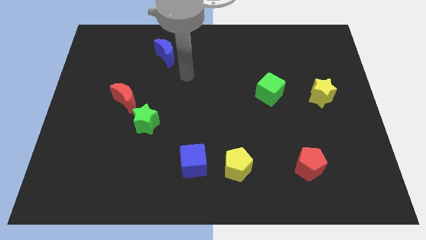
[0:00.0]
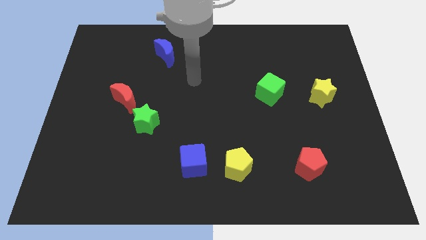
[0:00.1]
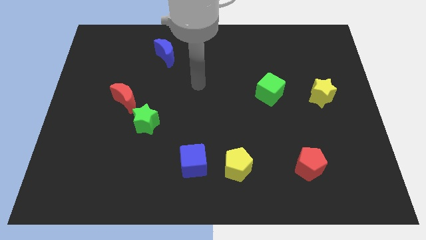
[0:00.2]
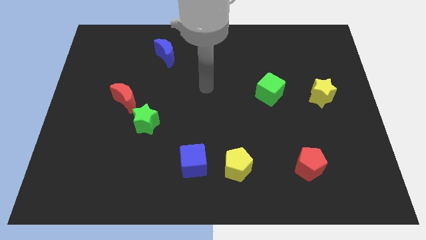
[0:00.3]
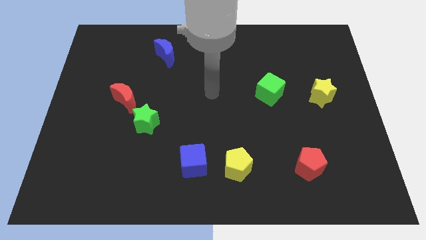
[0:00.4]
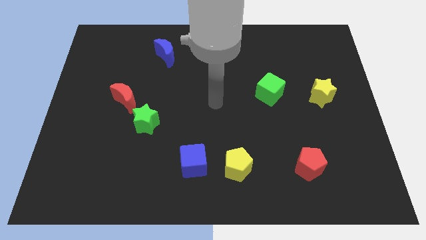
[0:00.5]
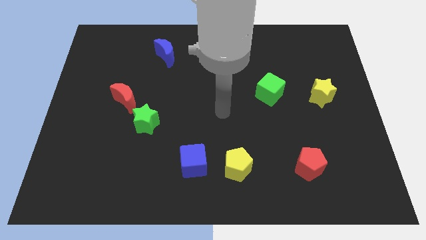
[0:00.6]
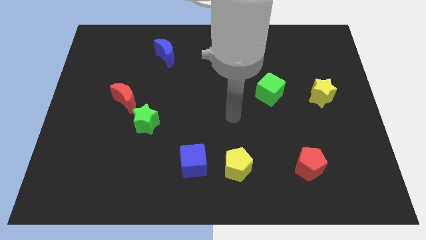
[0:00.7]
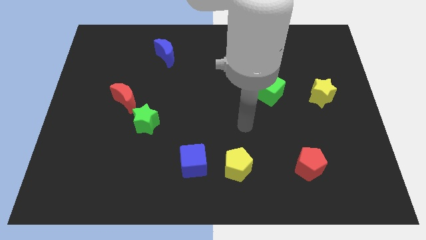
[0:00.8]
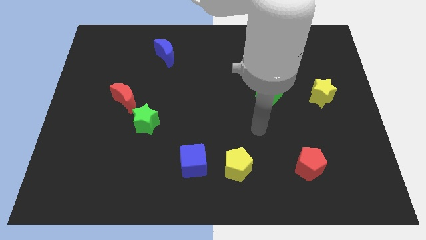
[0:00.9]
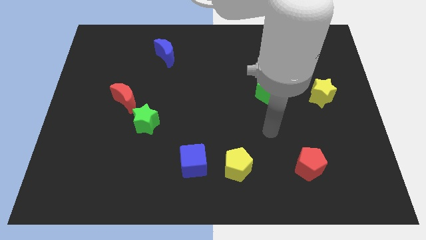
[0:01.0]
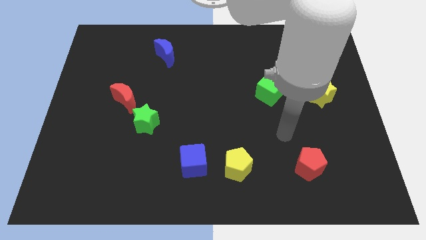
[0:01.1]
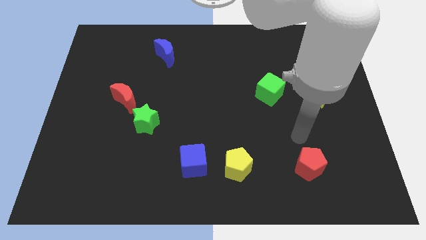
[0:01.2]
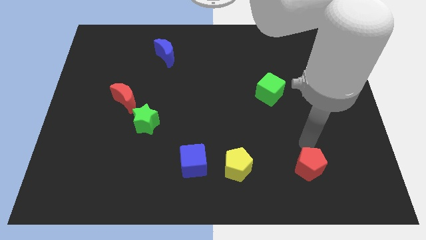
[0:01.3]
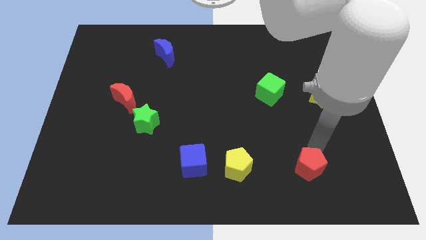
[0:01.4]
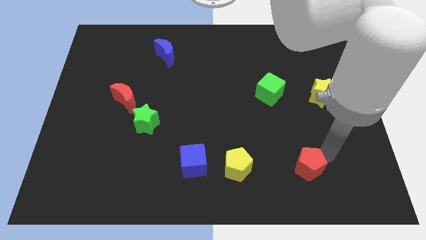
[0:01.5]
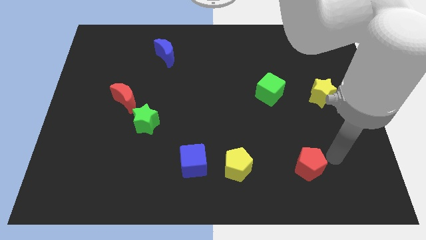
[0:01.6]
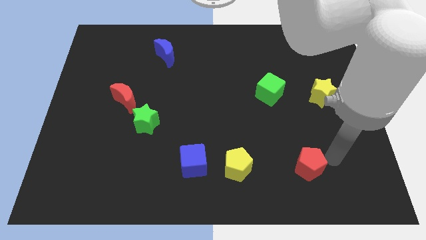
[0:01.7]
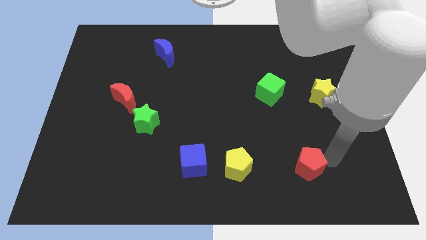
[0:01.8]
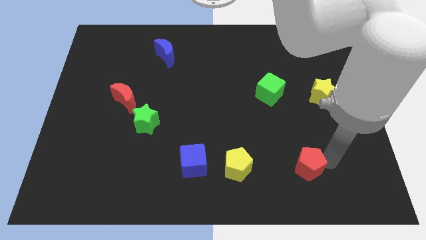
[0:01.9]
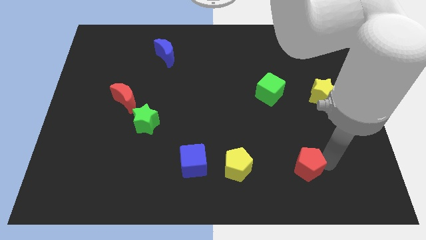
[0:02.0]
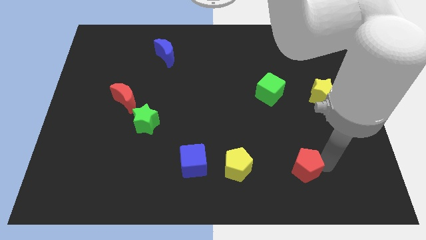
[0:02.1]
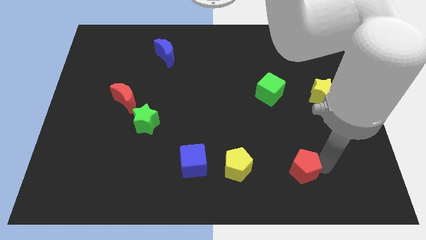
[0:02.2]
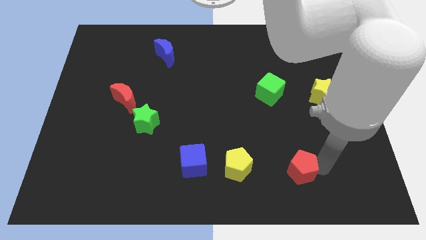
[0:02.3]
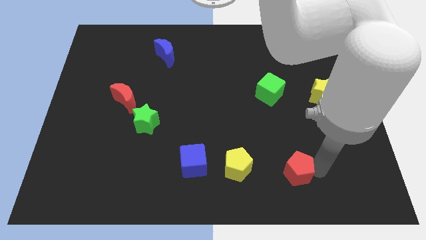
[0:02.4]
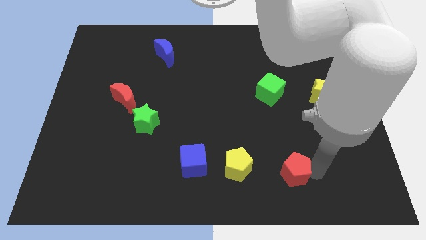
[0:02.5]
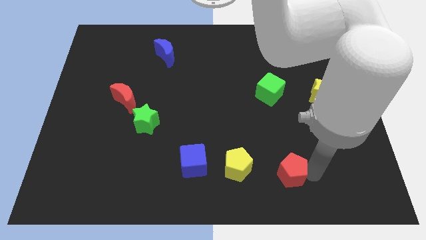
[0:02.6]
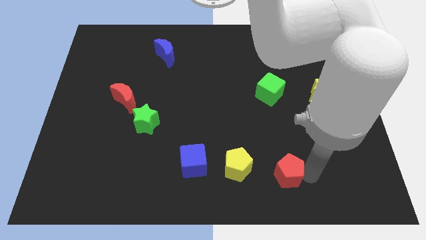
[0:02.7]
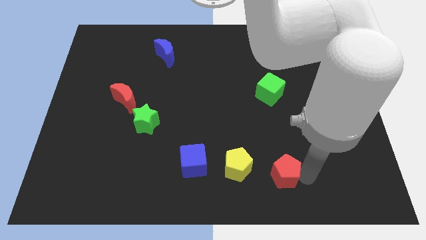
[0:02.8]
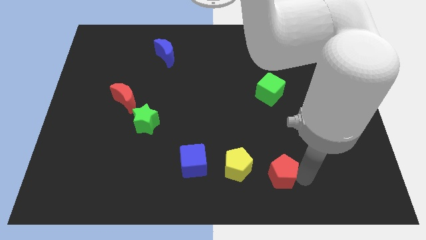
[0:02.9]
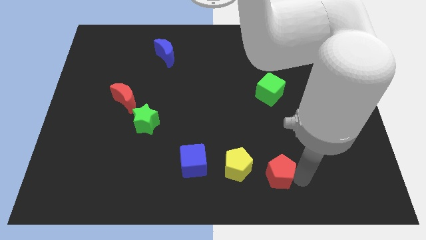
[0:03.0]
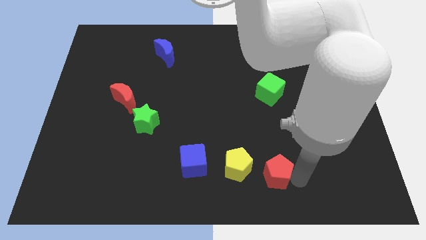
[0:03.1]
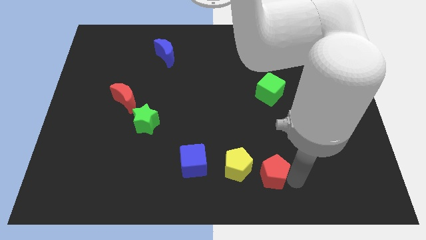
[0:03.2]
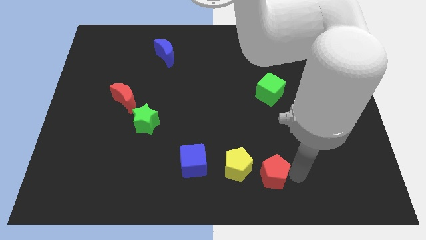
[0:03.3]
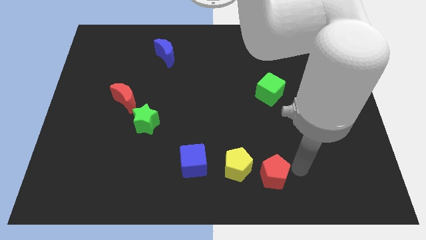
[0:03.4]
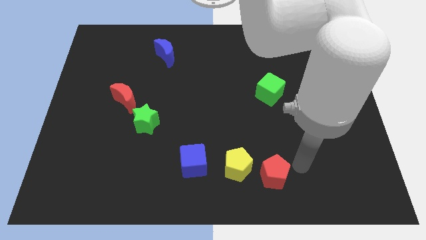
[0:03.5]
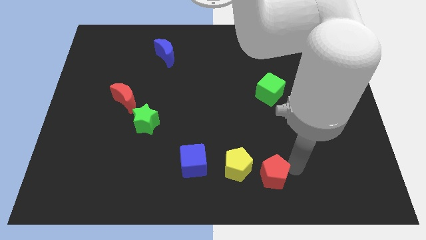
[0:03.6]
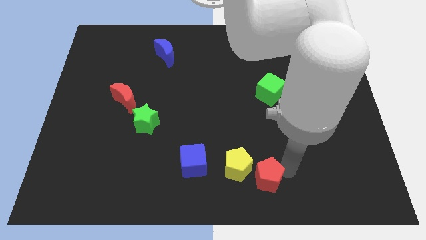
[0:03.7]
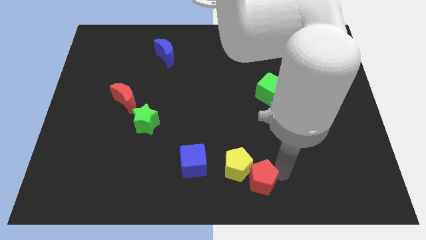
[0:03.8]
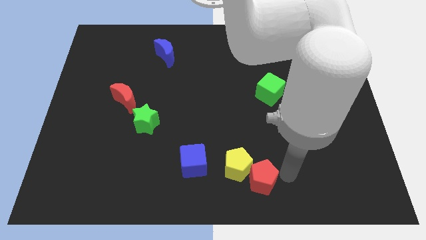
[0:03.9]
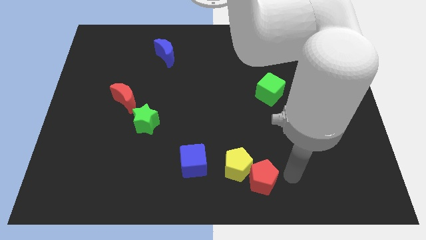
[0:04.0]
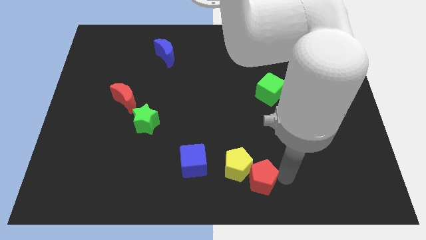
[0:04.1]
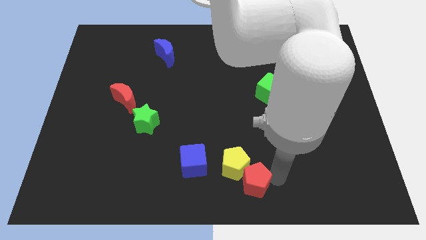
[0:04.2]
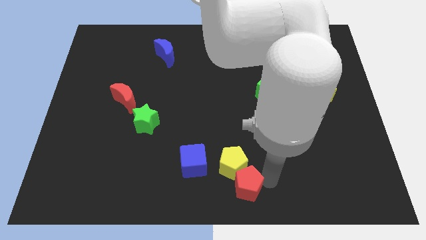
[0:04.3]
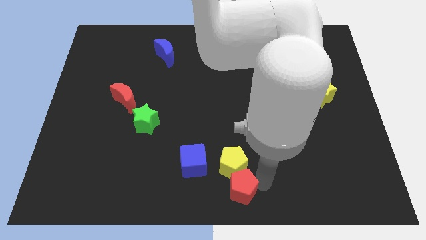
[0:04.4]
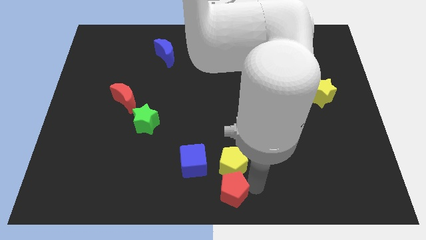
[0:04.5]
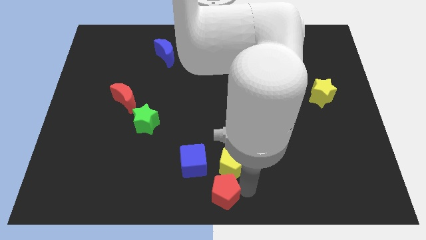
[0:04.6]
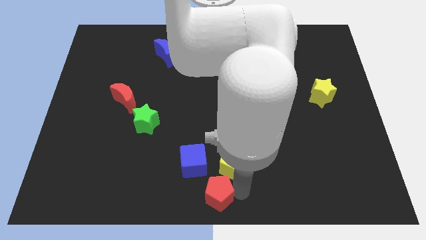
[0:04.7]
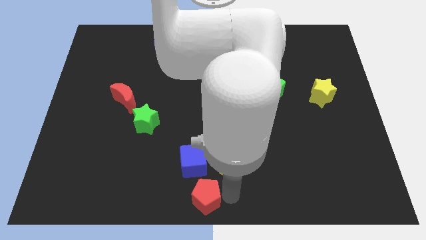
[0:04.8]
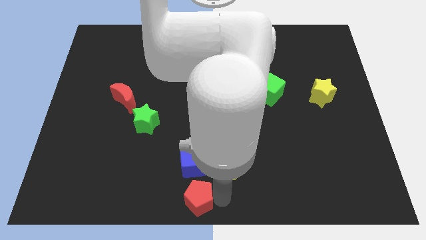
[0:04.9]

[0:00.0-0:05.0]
move the red pentagon left

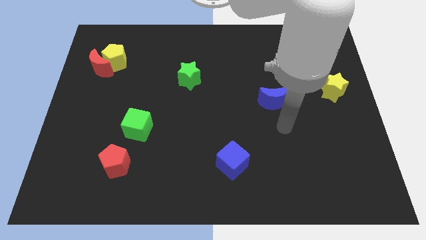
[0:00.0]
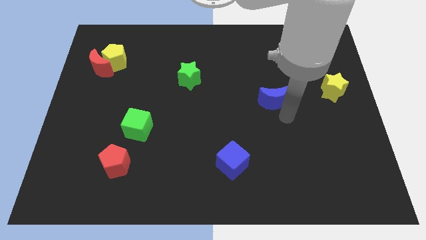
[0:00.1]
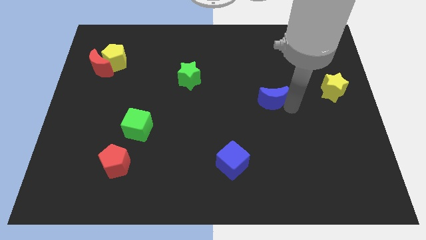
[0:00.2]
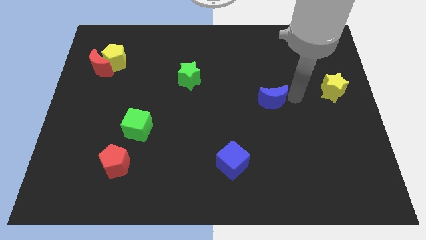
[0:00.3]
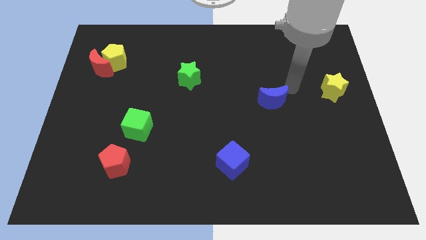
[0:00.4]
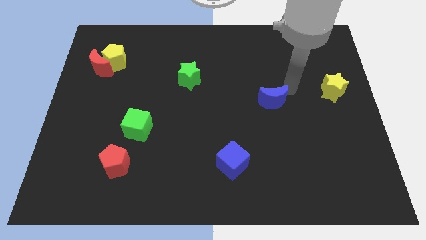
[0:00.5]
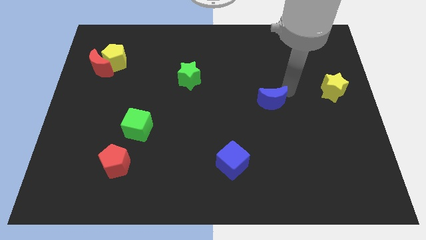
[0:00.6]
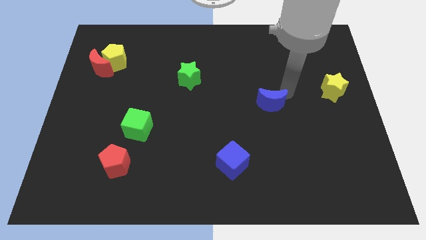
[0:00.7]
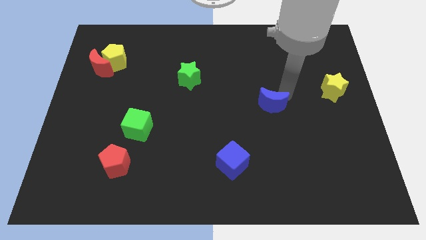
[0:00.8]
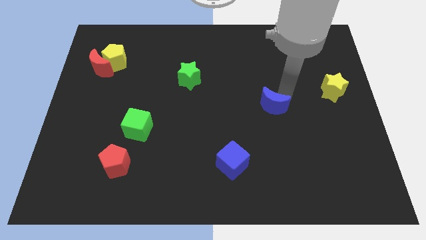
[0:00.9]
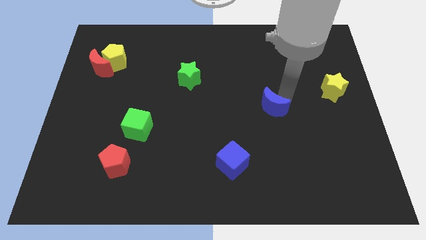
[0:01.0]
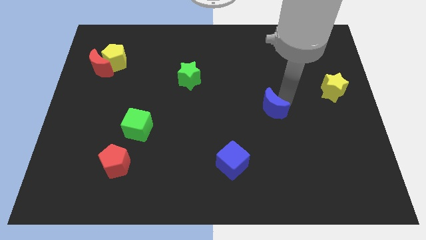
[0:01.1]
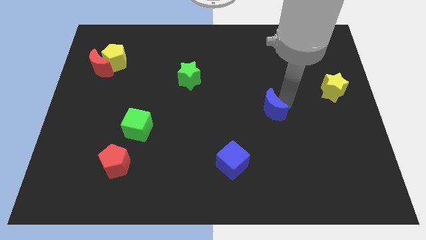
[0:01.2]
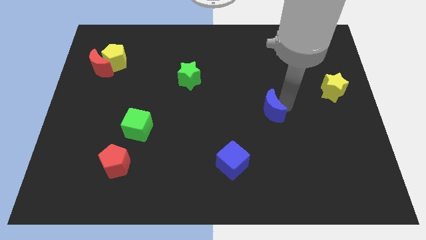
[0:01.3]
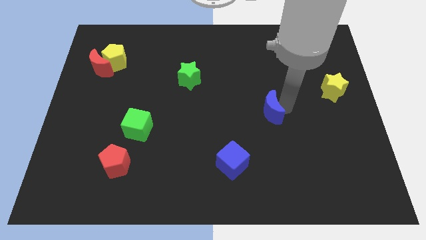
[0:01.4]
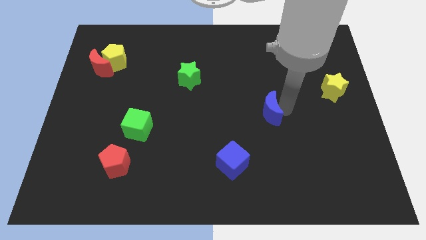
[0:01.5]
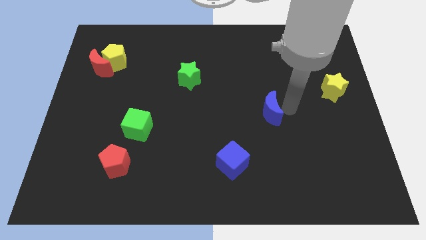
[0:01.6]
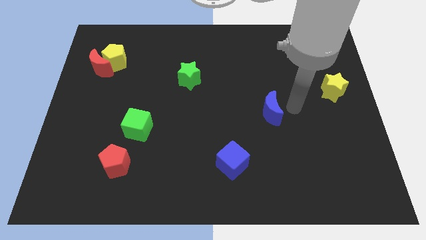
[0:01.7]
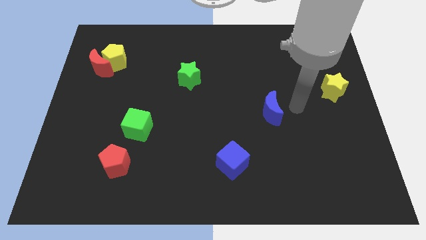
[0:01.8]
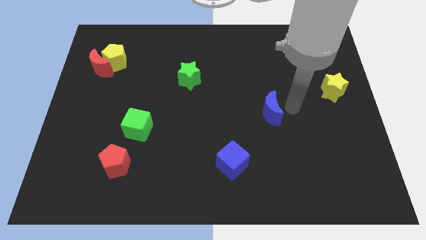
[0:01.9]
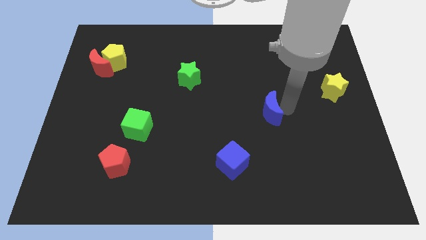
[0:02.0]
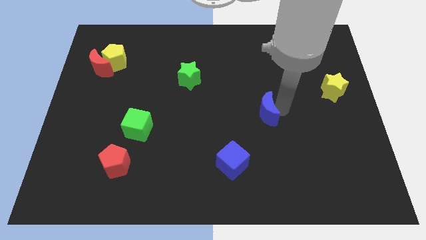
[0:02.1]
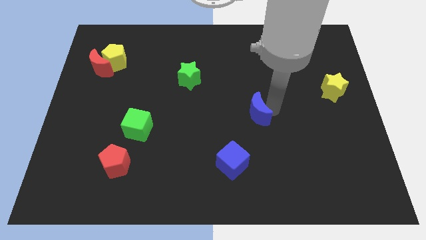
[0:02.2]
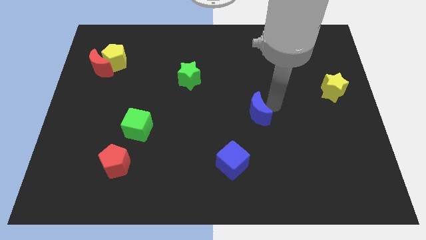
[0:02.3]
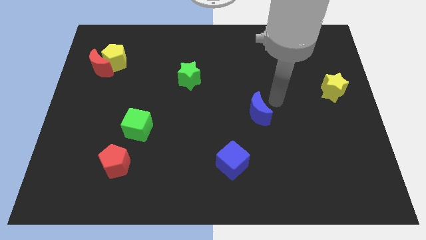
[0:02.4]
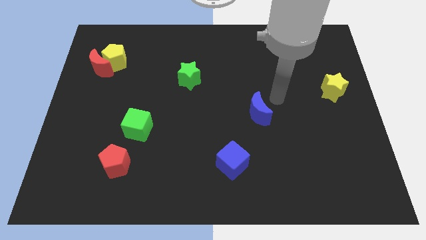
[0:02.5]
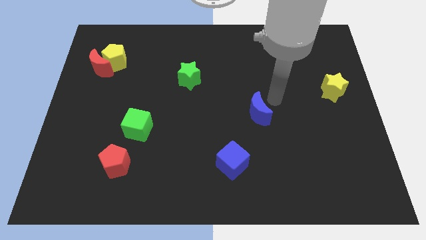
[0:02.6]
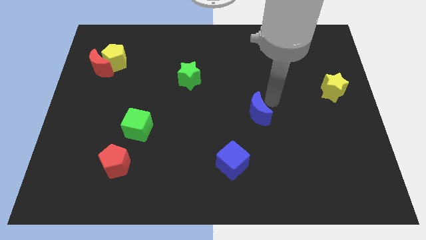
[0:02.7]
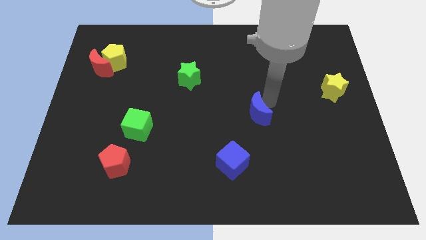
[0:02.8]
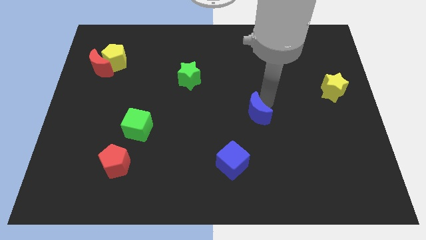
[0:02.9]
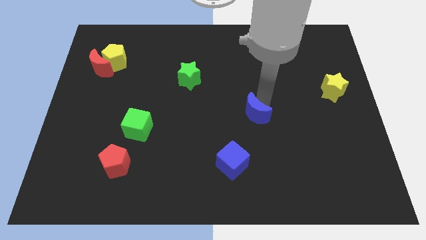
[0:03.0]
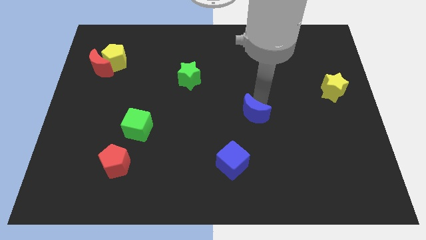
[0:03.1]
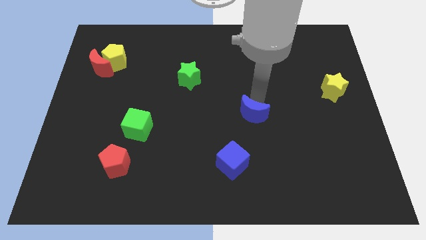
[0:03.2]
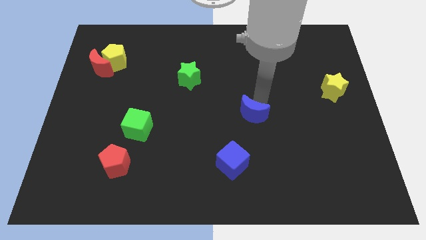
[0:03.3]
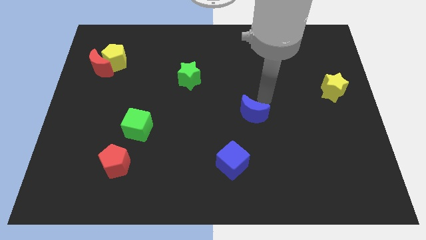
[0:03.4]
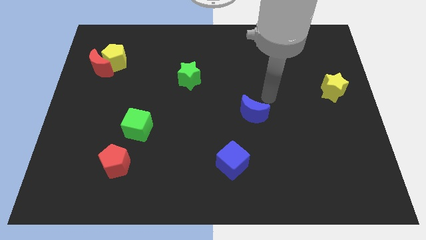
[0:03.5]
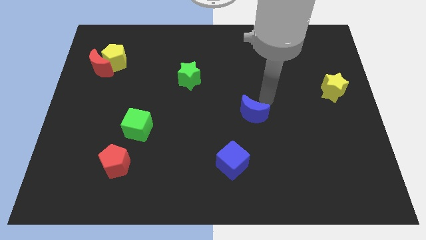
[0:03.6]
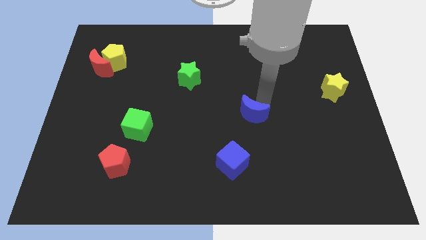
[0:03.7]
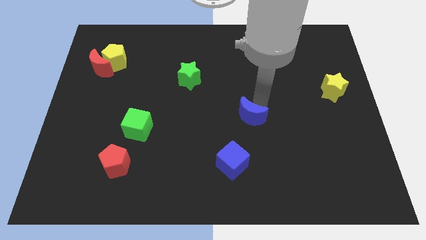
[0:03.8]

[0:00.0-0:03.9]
slide the blue moon a bit downwards and to the left diagonally
